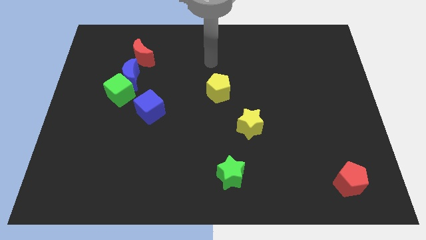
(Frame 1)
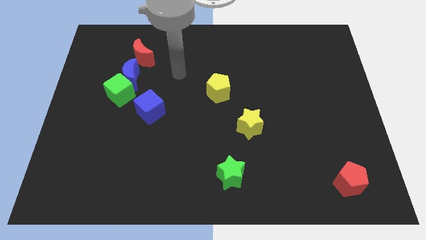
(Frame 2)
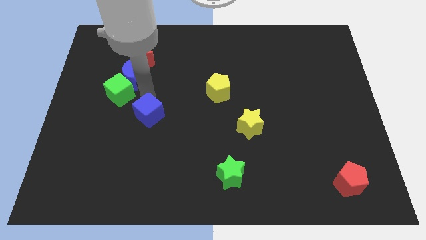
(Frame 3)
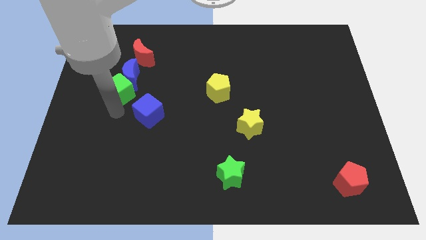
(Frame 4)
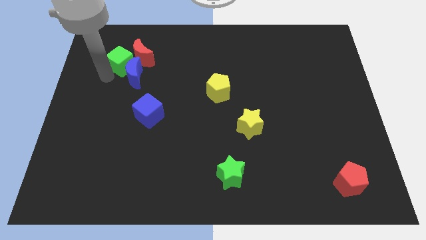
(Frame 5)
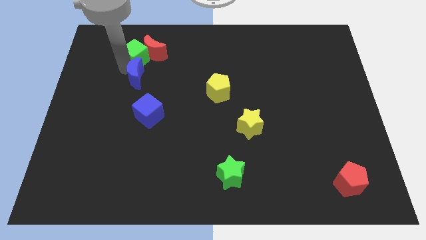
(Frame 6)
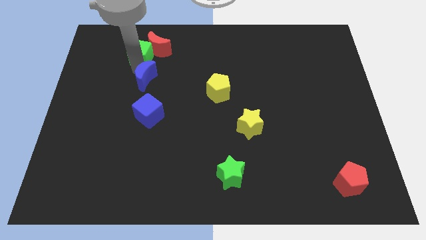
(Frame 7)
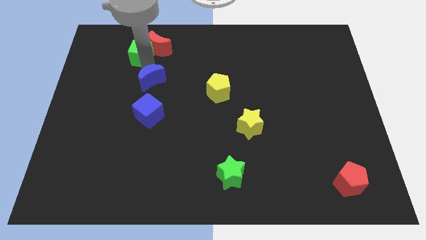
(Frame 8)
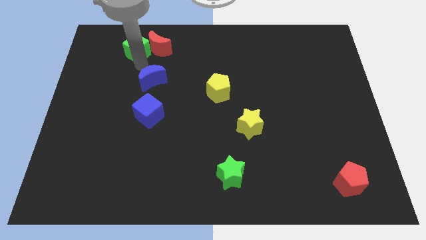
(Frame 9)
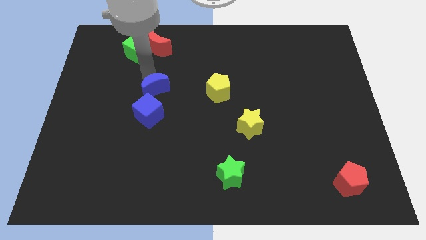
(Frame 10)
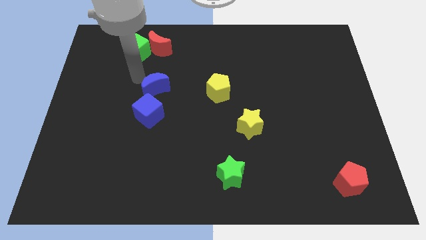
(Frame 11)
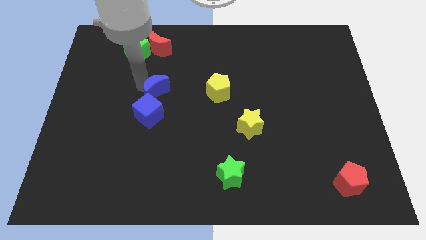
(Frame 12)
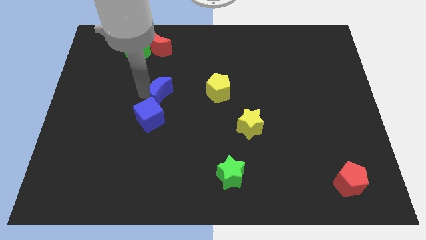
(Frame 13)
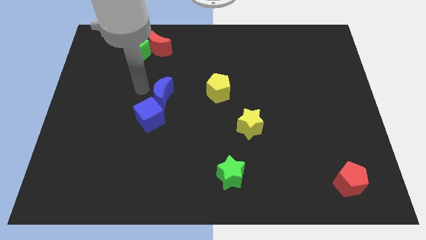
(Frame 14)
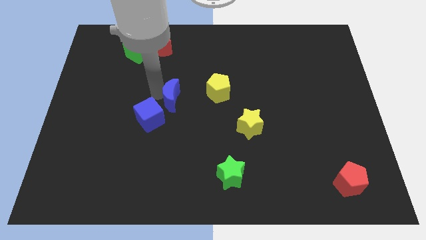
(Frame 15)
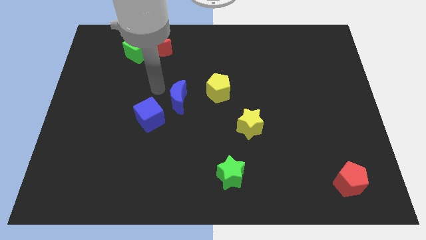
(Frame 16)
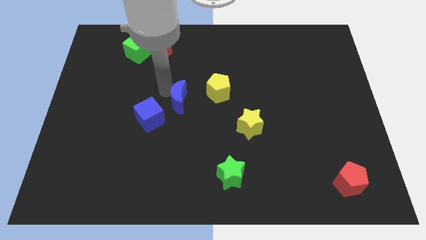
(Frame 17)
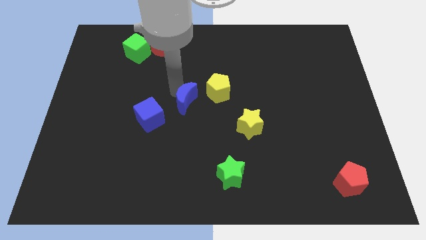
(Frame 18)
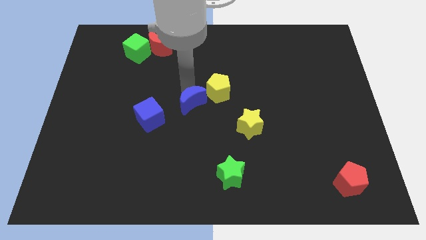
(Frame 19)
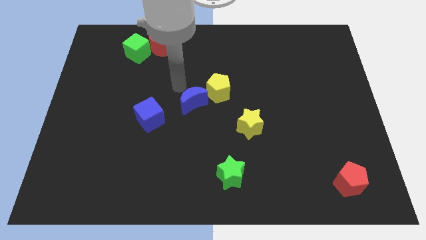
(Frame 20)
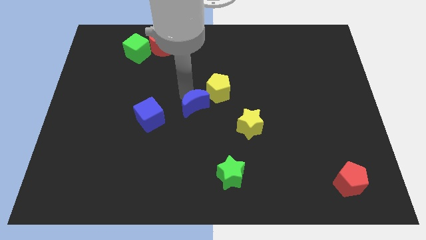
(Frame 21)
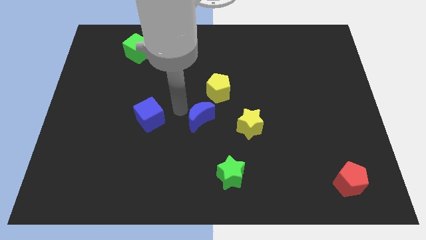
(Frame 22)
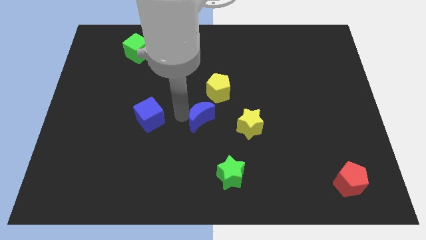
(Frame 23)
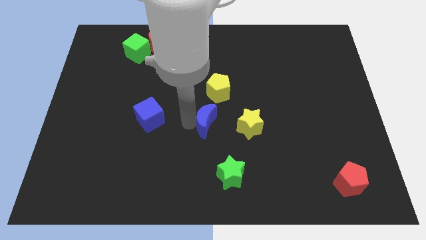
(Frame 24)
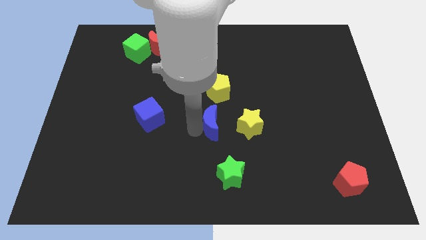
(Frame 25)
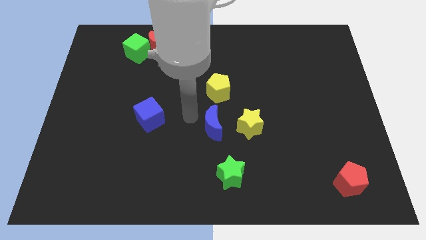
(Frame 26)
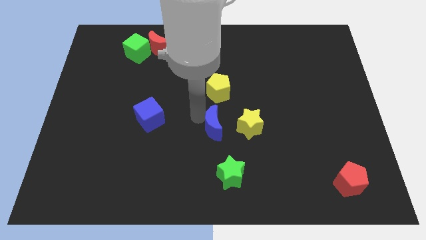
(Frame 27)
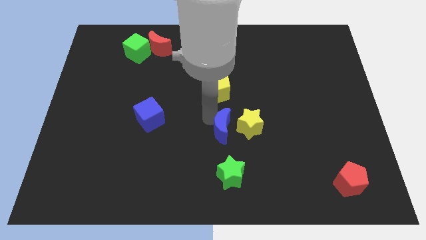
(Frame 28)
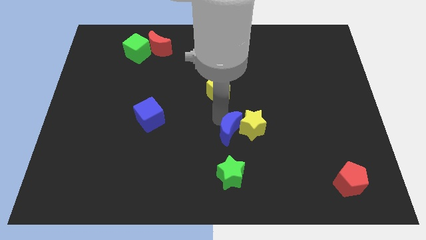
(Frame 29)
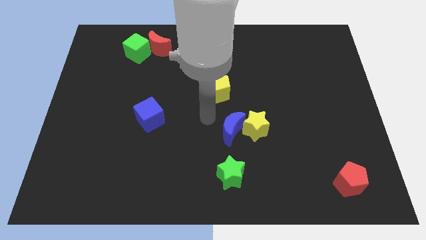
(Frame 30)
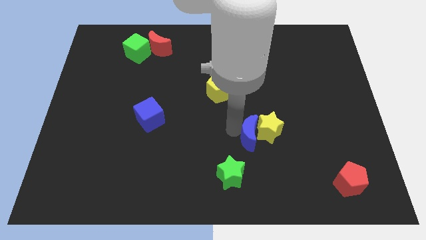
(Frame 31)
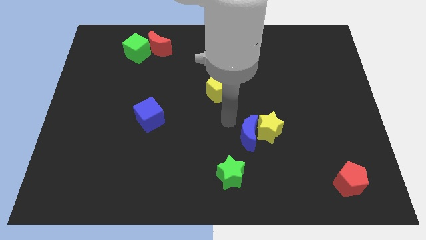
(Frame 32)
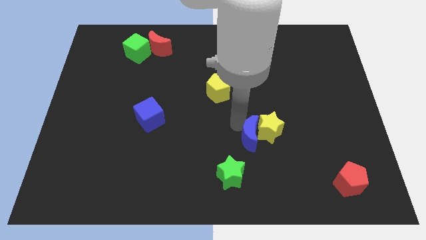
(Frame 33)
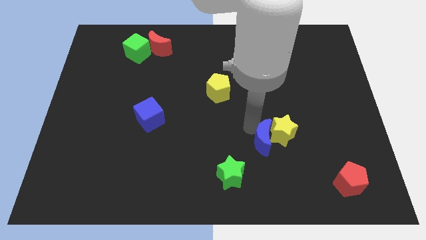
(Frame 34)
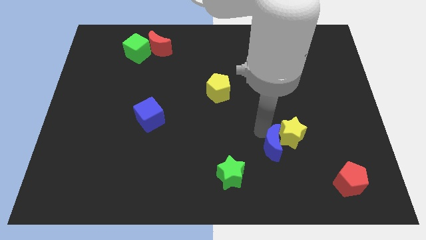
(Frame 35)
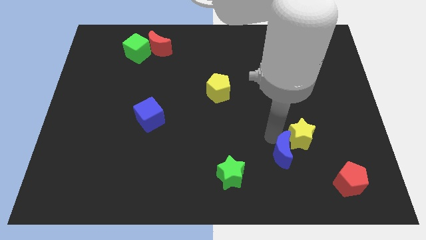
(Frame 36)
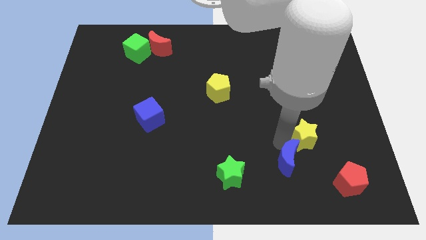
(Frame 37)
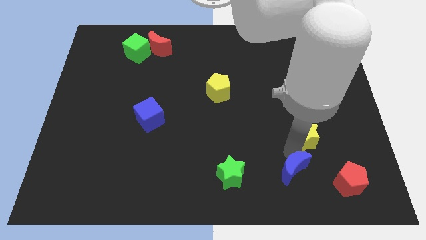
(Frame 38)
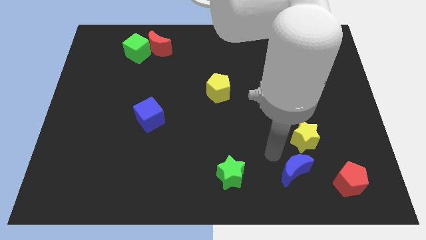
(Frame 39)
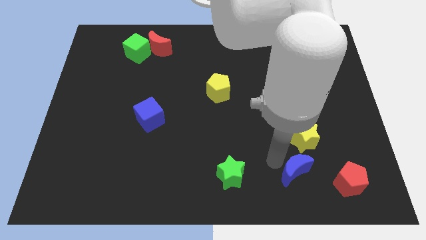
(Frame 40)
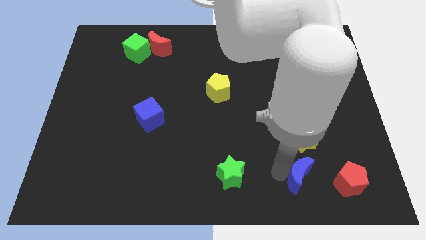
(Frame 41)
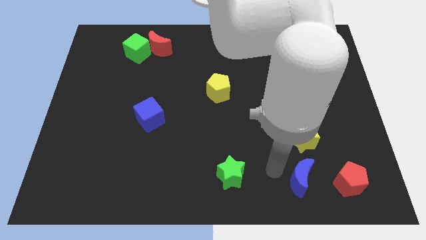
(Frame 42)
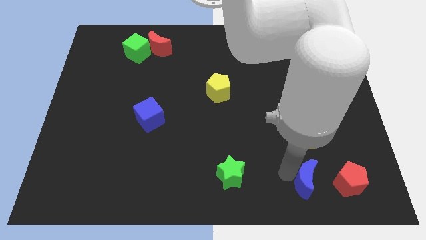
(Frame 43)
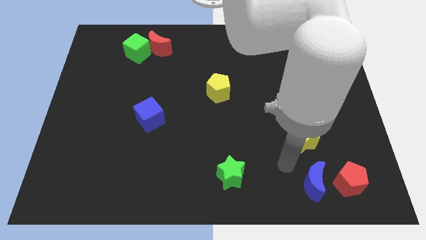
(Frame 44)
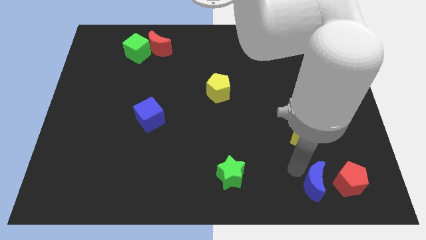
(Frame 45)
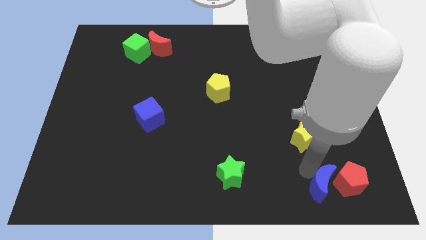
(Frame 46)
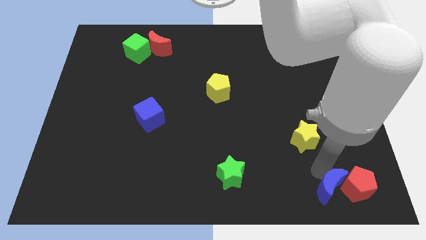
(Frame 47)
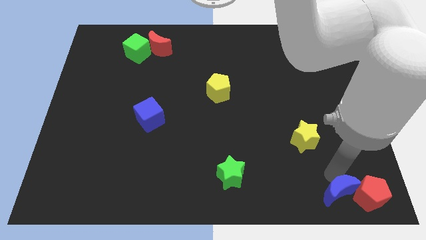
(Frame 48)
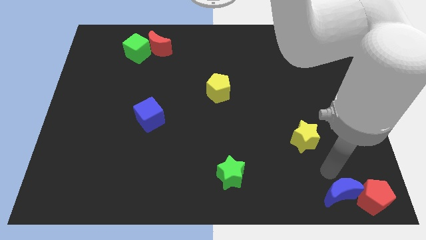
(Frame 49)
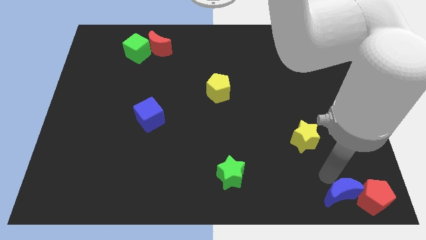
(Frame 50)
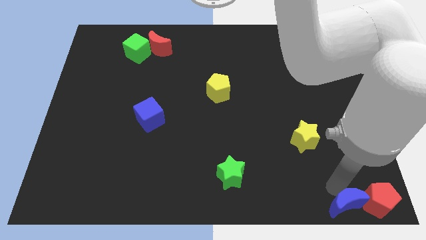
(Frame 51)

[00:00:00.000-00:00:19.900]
slide the blue moon to the bottom right

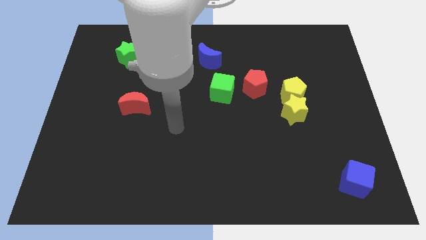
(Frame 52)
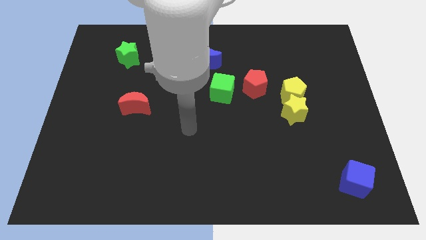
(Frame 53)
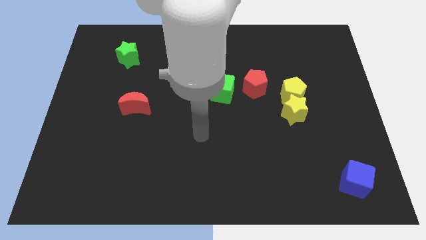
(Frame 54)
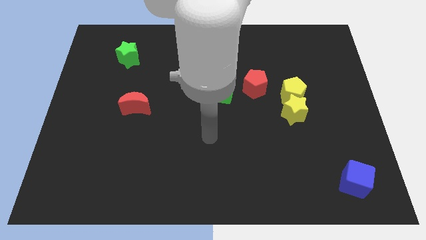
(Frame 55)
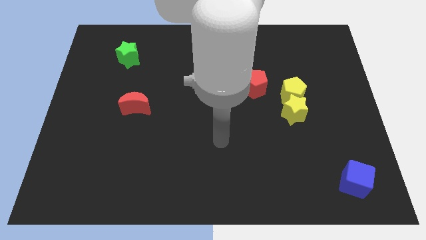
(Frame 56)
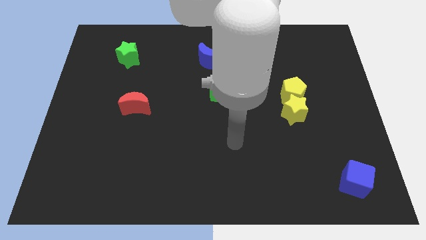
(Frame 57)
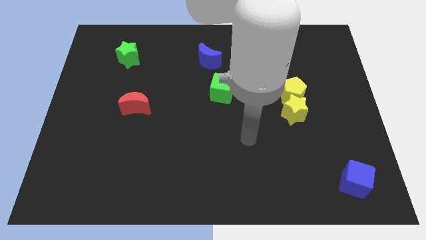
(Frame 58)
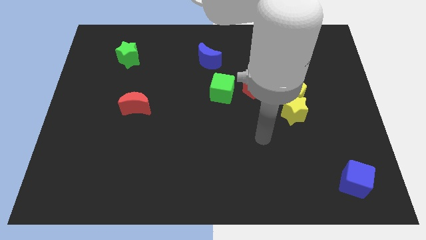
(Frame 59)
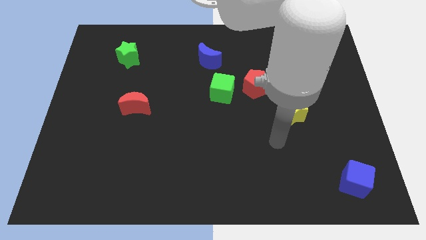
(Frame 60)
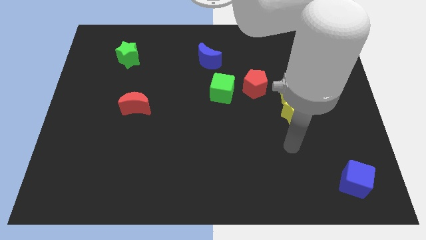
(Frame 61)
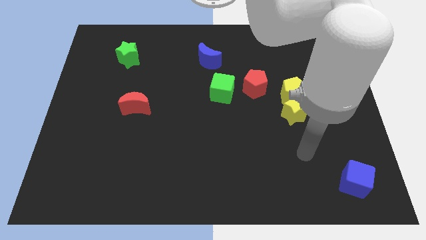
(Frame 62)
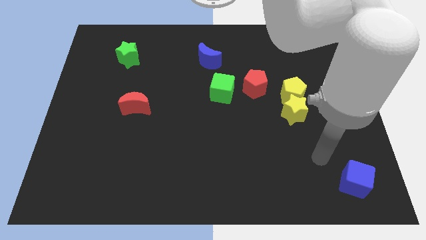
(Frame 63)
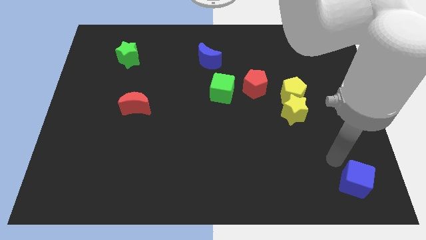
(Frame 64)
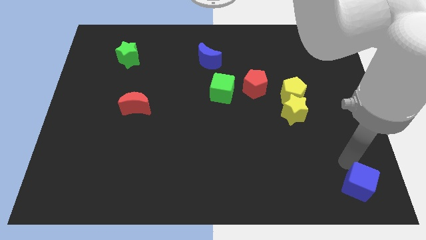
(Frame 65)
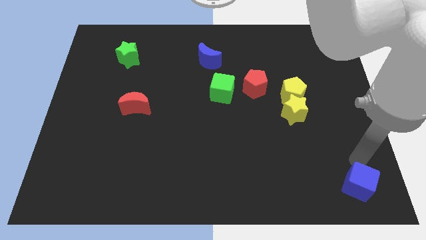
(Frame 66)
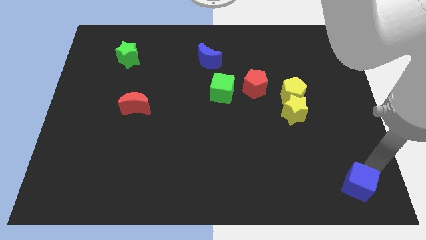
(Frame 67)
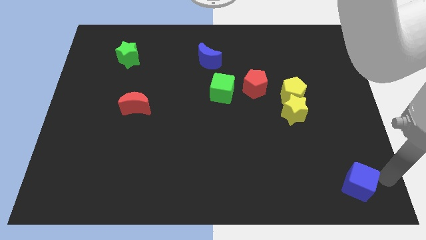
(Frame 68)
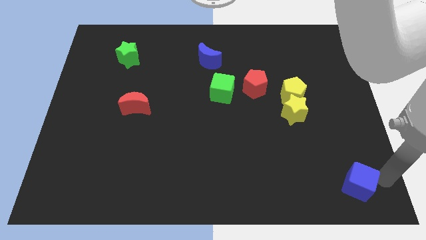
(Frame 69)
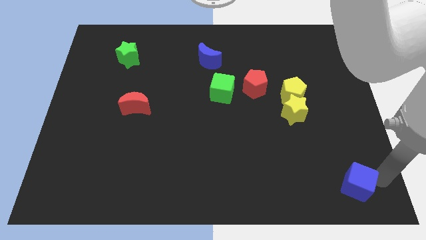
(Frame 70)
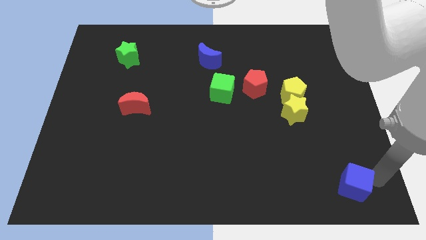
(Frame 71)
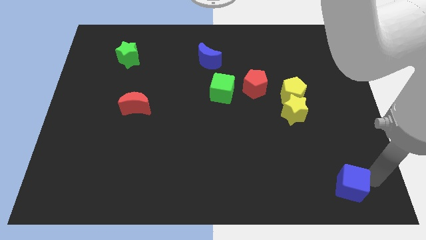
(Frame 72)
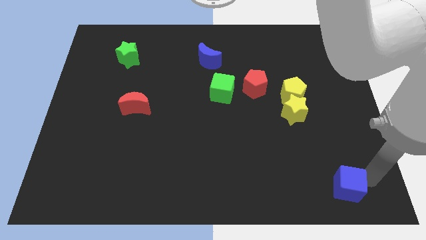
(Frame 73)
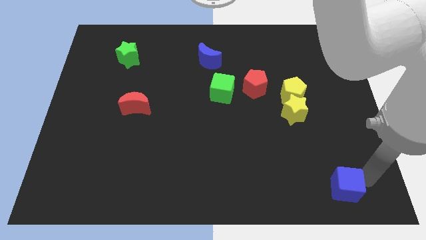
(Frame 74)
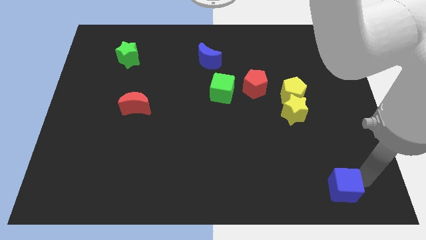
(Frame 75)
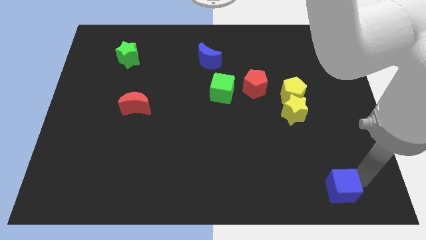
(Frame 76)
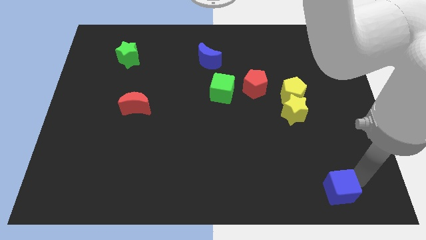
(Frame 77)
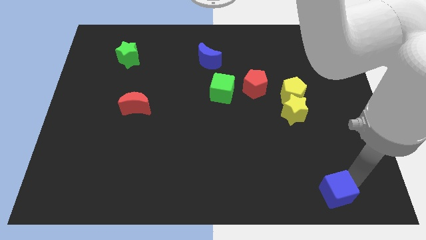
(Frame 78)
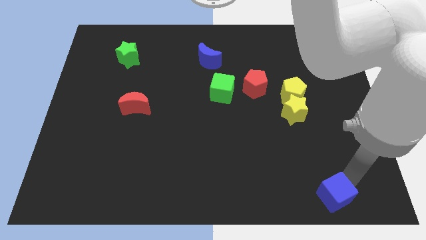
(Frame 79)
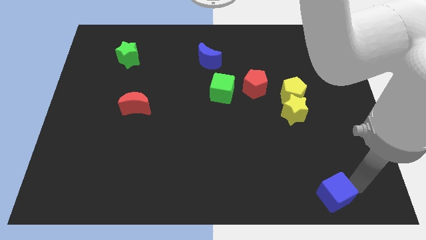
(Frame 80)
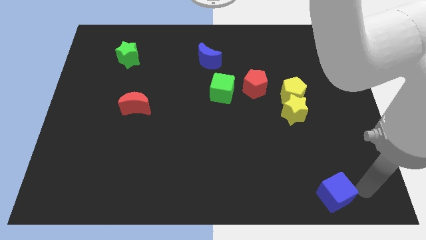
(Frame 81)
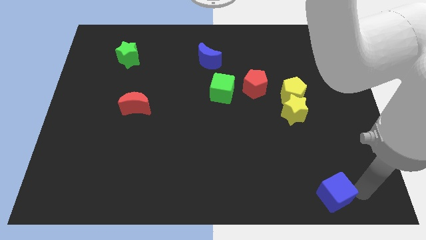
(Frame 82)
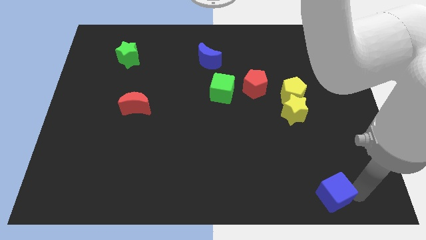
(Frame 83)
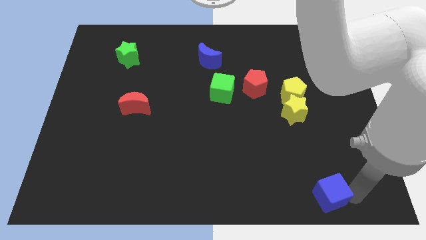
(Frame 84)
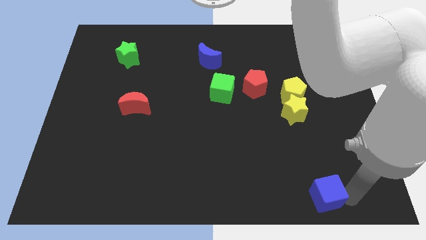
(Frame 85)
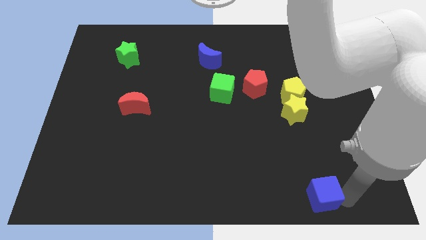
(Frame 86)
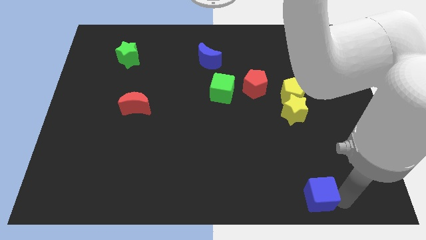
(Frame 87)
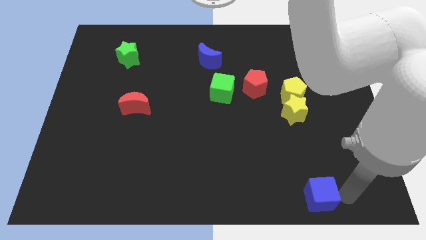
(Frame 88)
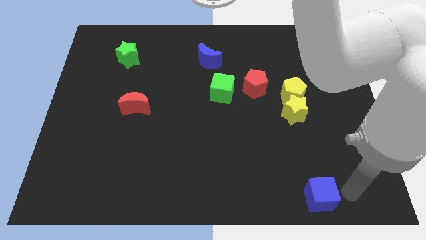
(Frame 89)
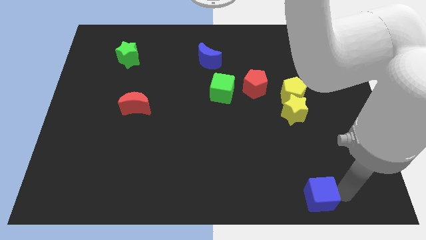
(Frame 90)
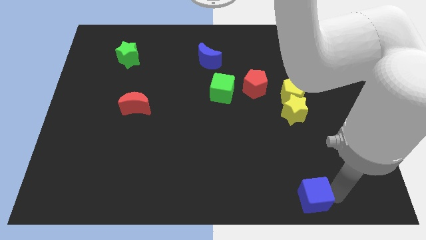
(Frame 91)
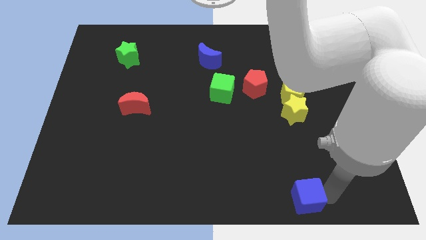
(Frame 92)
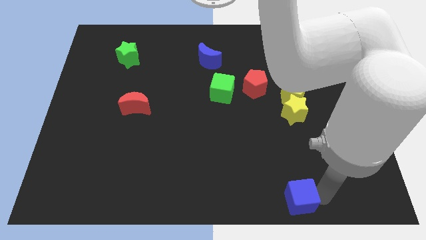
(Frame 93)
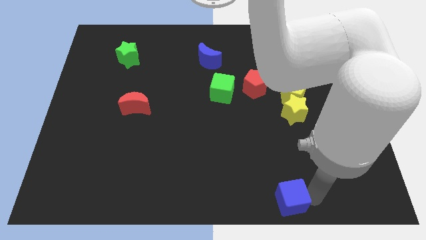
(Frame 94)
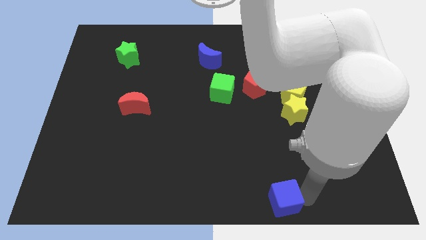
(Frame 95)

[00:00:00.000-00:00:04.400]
move the blue cube to the bottom
